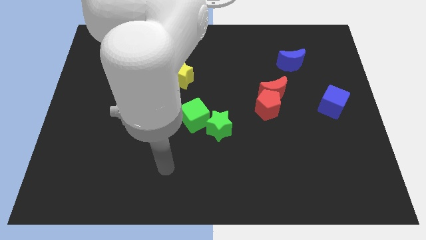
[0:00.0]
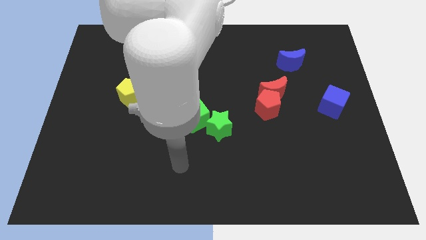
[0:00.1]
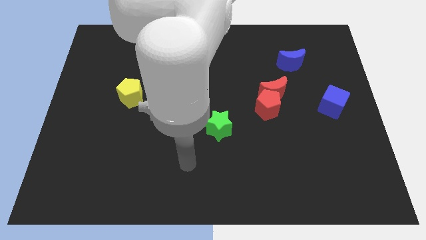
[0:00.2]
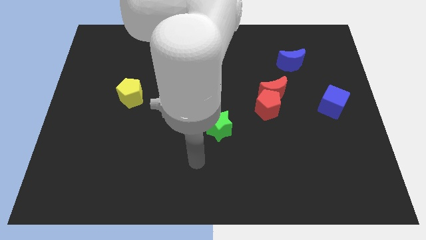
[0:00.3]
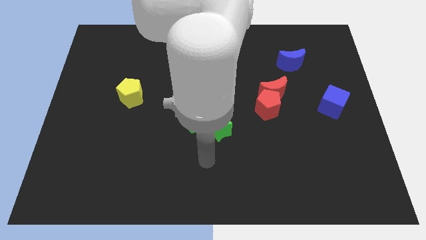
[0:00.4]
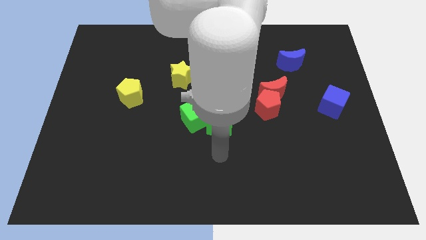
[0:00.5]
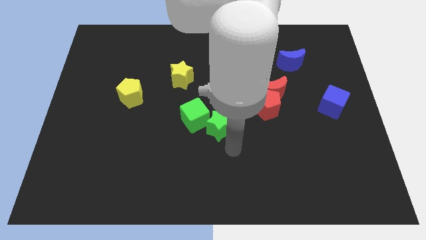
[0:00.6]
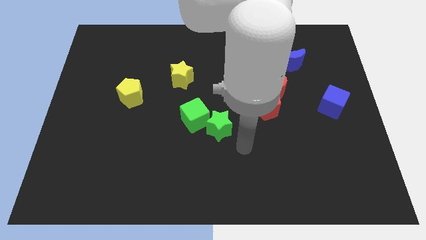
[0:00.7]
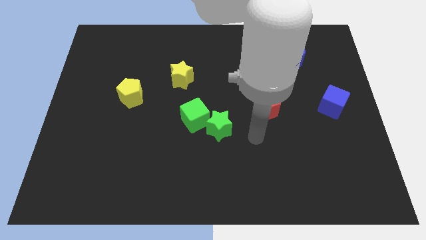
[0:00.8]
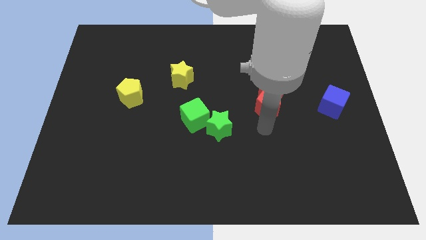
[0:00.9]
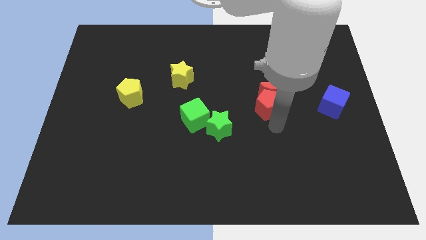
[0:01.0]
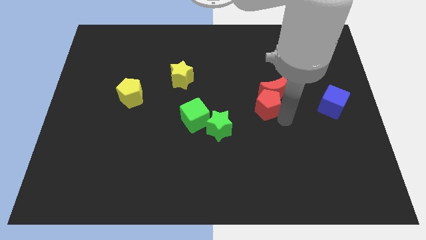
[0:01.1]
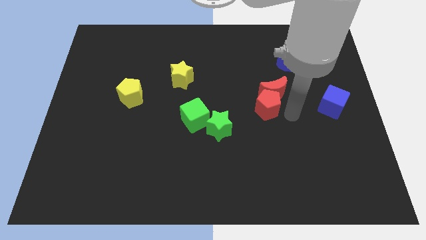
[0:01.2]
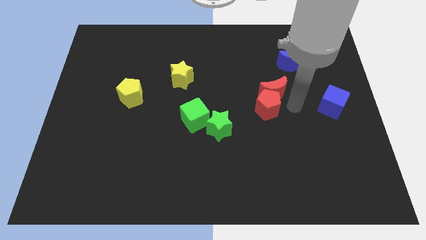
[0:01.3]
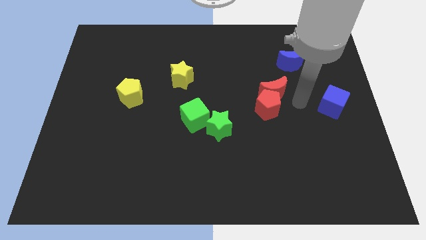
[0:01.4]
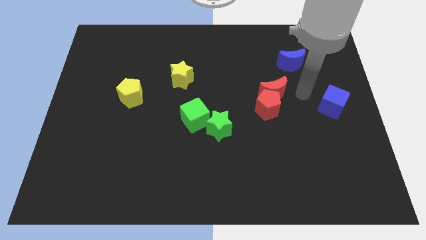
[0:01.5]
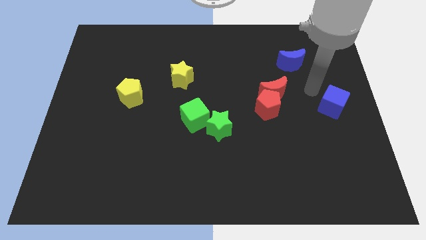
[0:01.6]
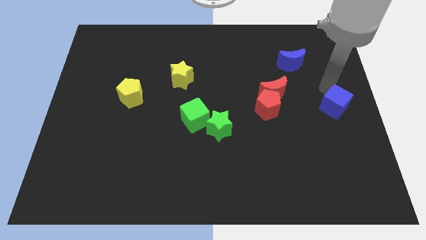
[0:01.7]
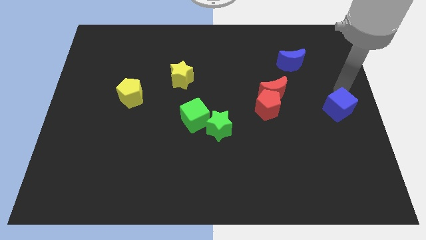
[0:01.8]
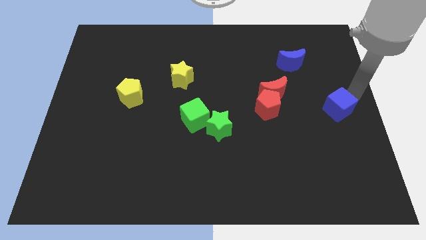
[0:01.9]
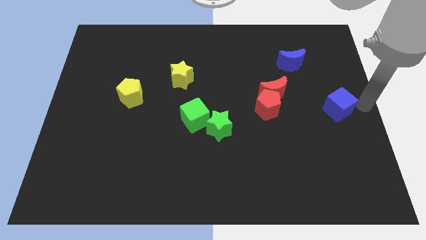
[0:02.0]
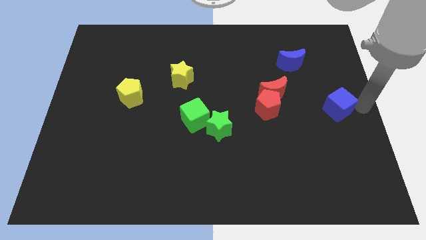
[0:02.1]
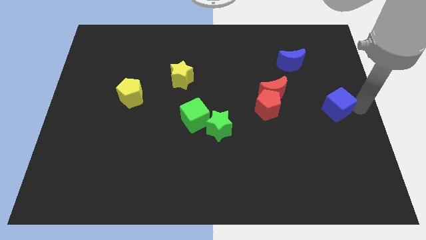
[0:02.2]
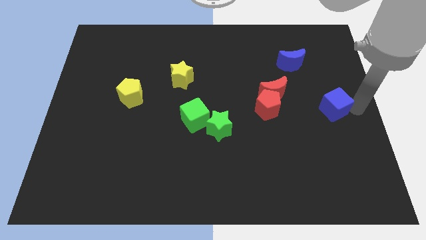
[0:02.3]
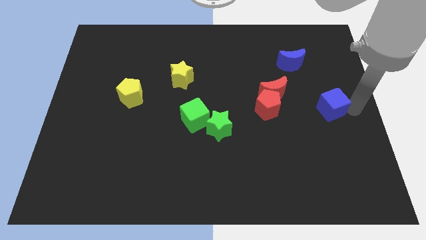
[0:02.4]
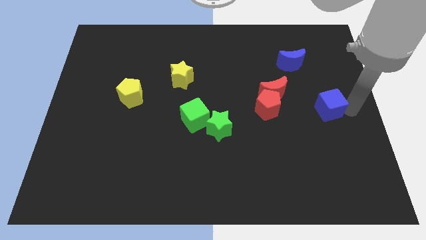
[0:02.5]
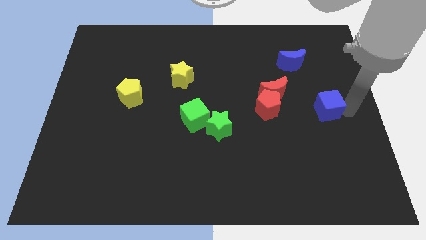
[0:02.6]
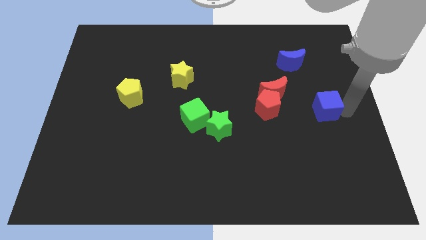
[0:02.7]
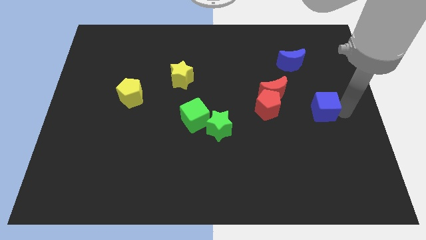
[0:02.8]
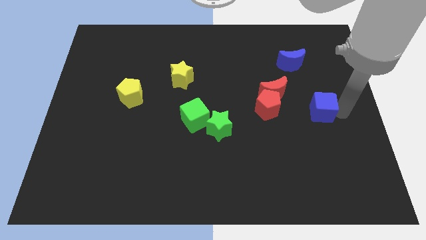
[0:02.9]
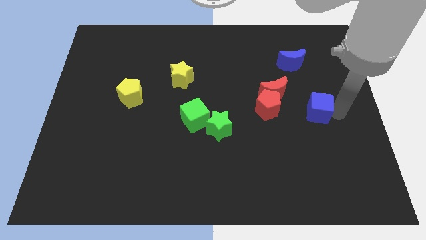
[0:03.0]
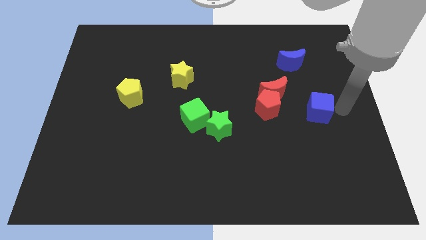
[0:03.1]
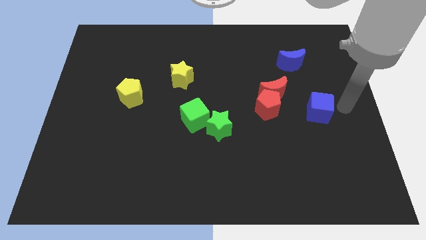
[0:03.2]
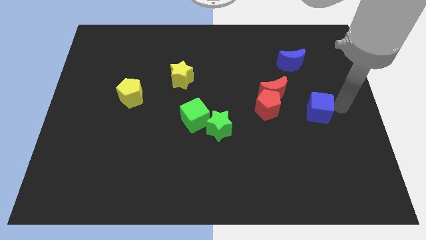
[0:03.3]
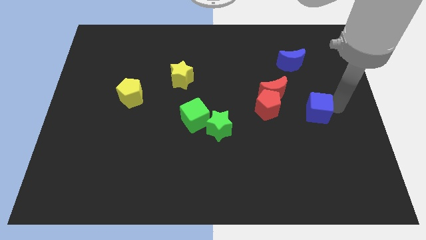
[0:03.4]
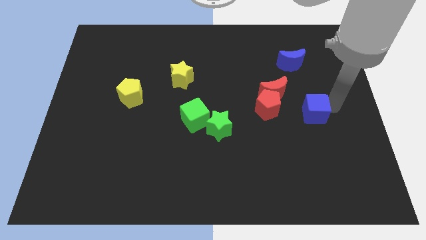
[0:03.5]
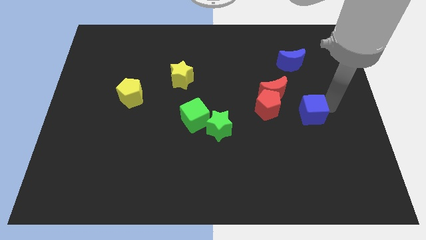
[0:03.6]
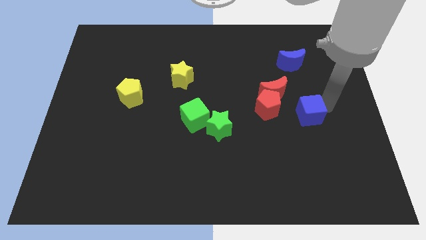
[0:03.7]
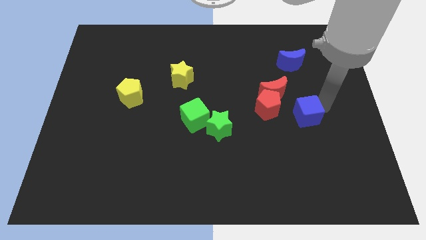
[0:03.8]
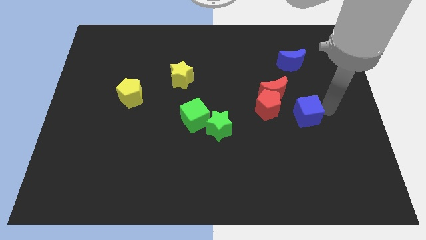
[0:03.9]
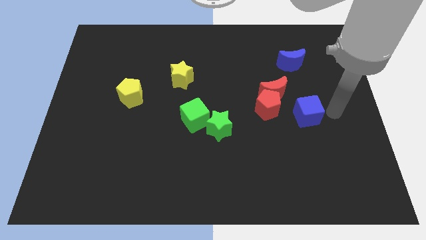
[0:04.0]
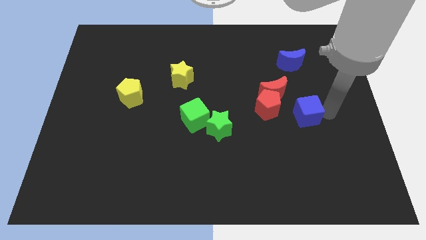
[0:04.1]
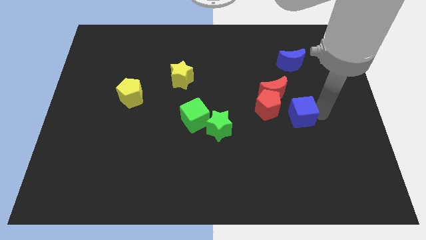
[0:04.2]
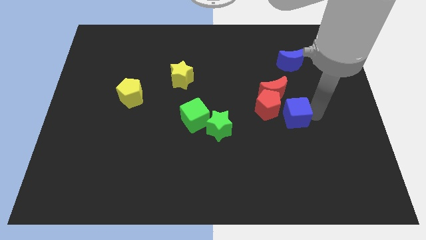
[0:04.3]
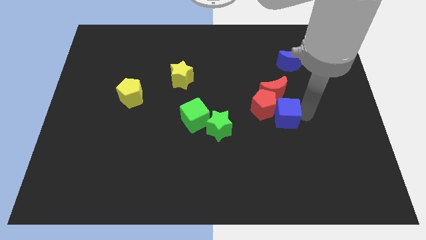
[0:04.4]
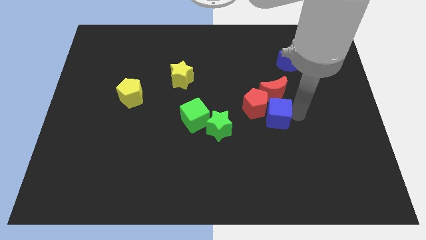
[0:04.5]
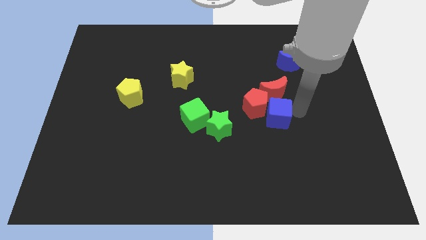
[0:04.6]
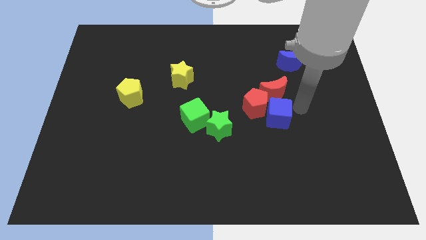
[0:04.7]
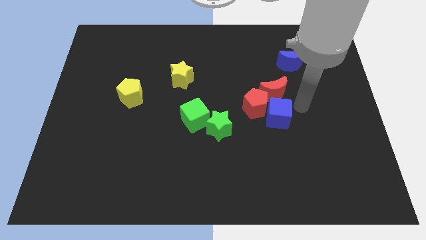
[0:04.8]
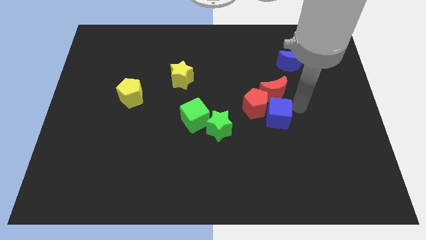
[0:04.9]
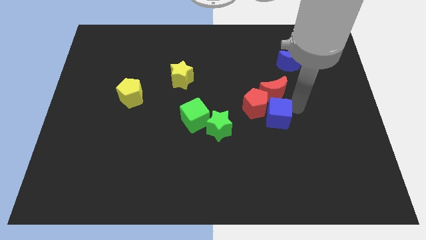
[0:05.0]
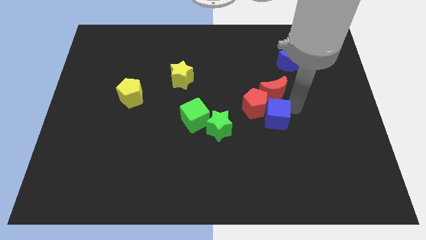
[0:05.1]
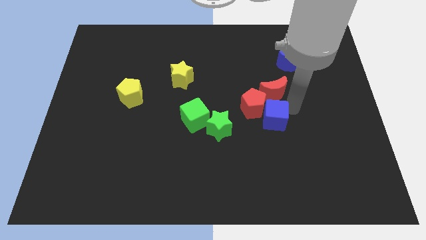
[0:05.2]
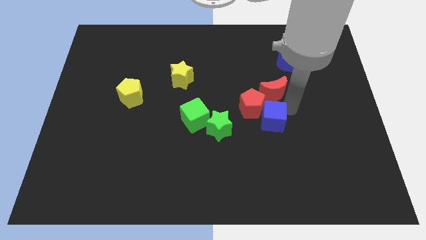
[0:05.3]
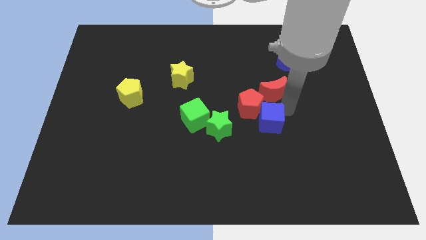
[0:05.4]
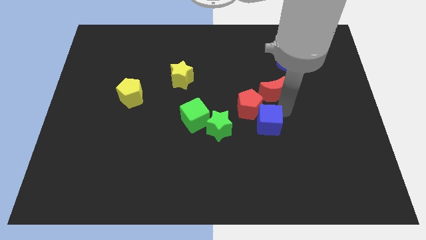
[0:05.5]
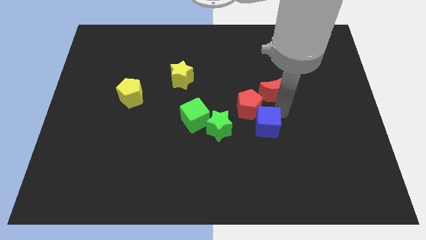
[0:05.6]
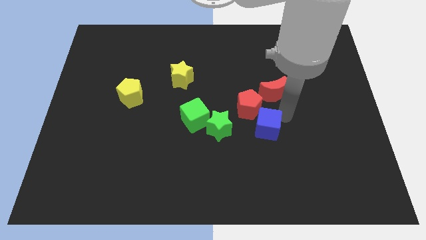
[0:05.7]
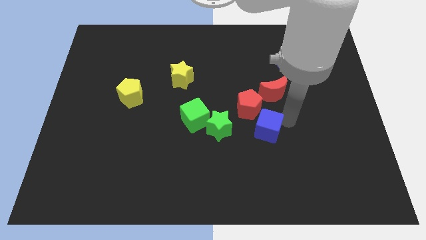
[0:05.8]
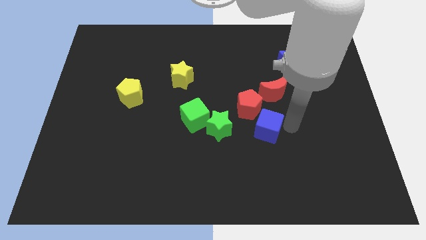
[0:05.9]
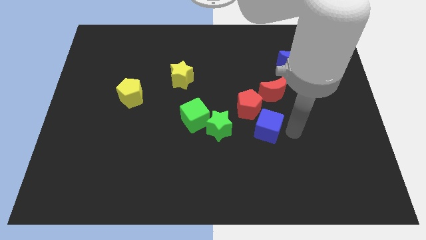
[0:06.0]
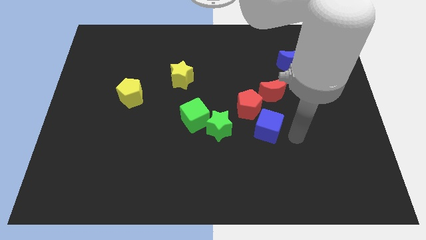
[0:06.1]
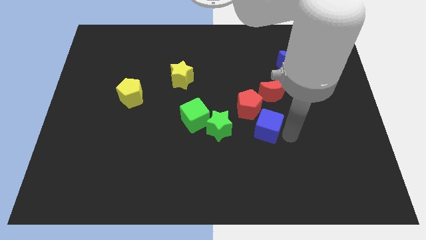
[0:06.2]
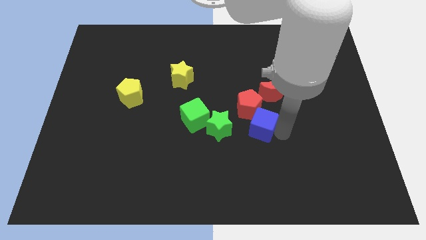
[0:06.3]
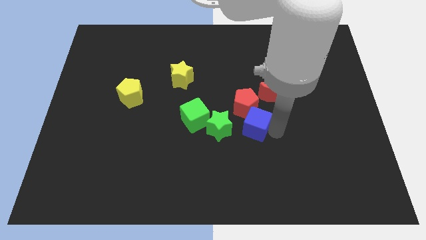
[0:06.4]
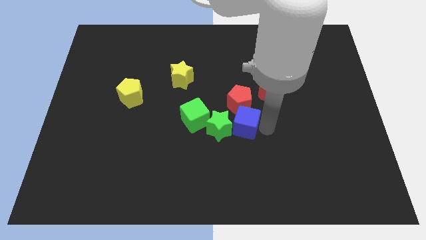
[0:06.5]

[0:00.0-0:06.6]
put the blue cube towards the green star
